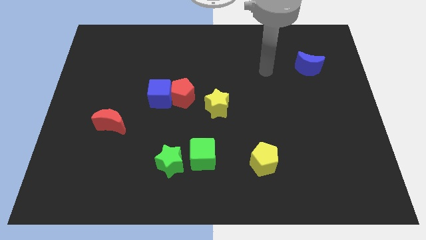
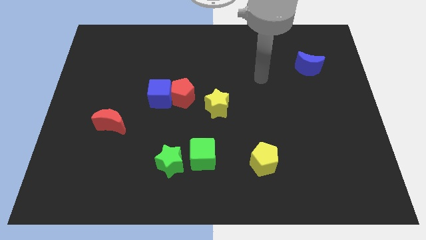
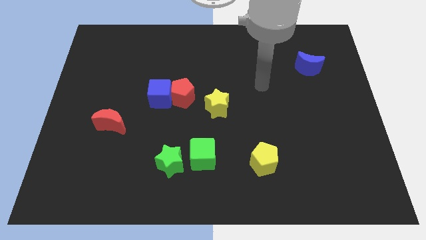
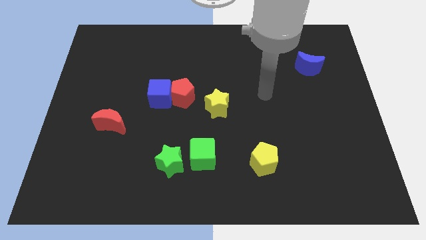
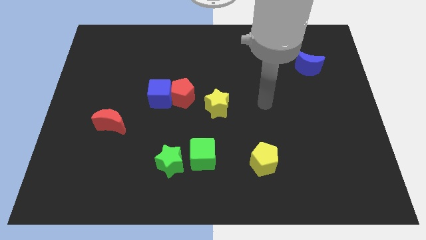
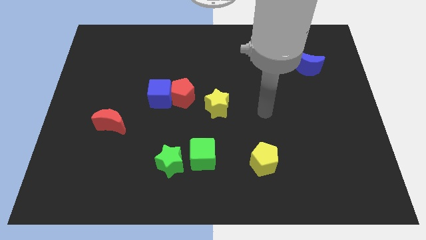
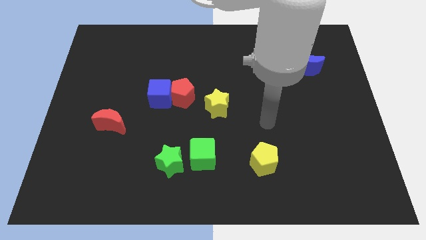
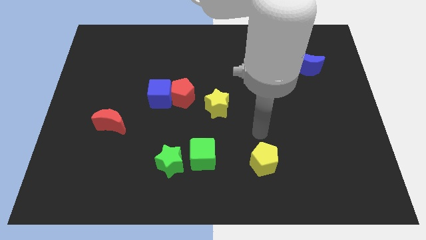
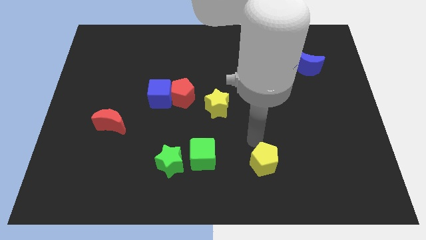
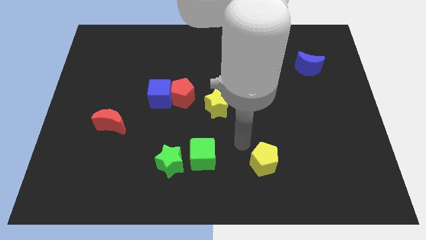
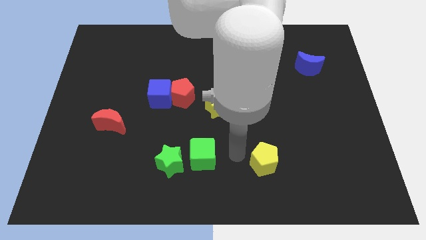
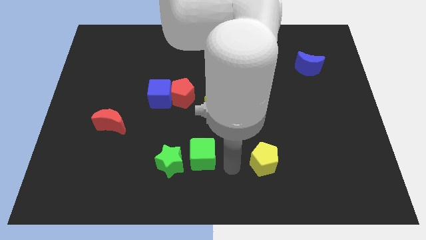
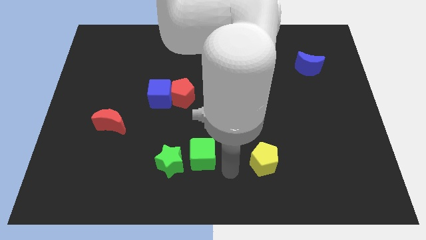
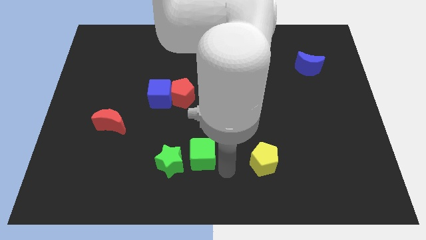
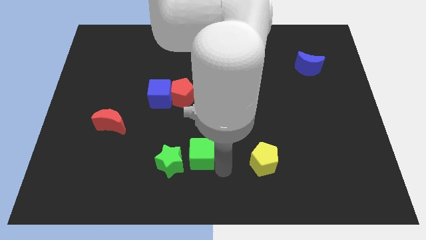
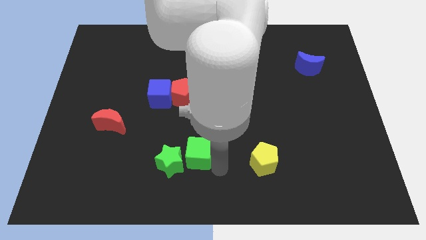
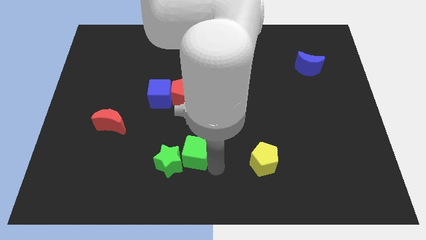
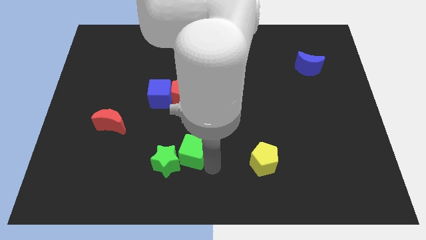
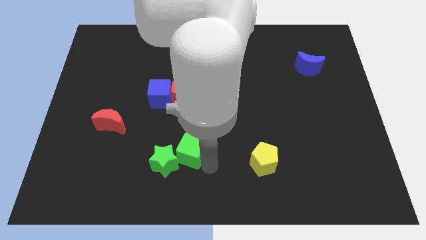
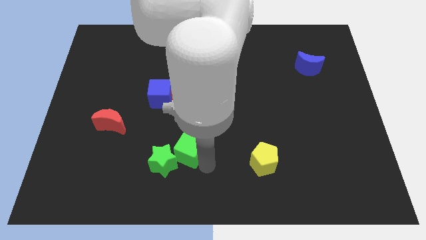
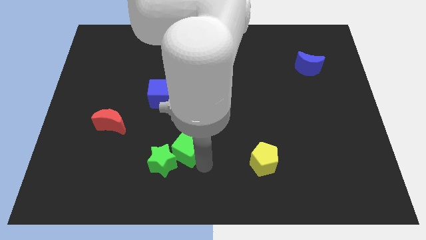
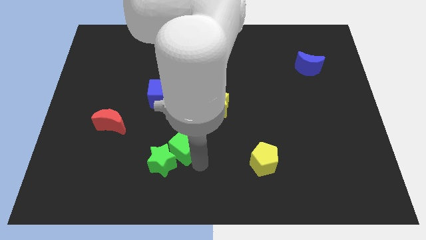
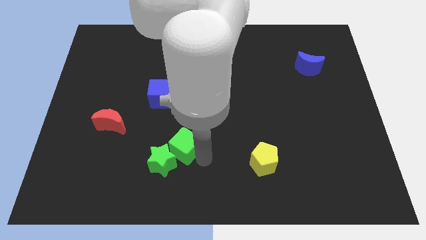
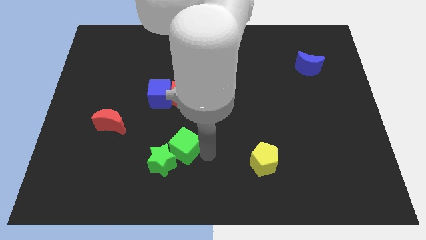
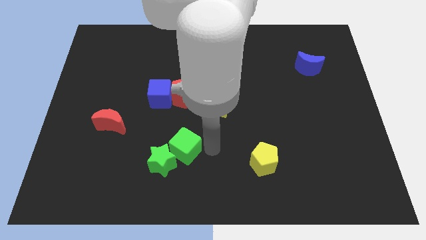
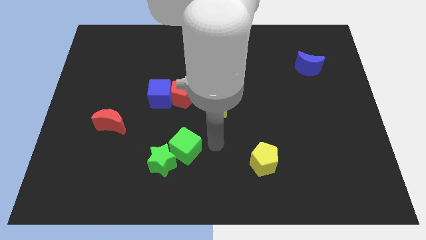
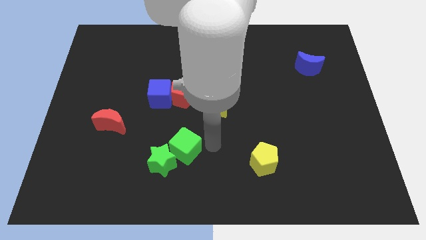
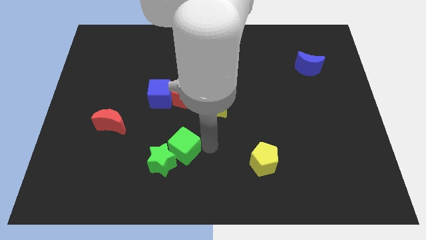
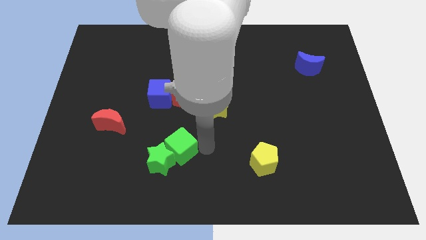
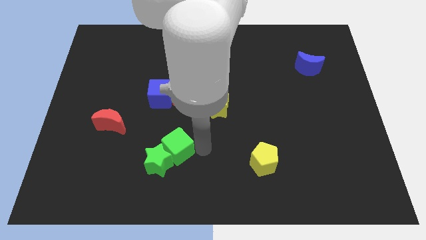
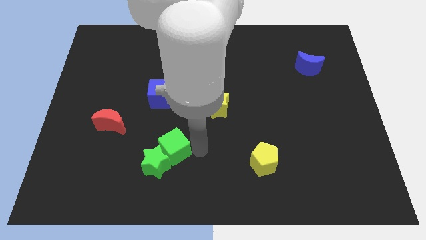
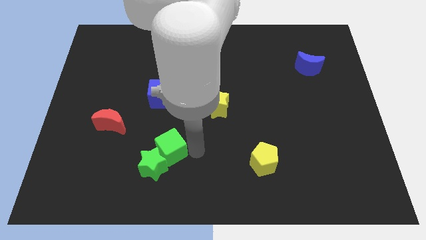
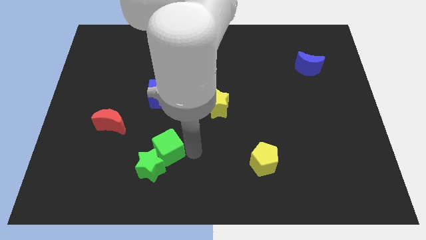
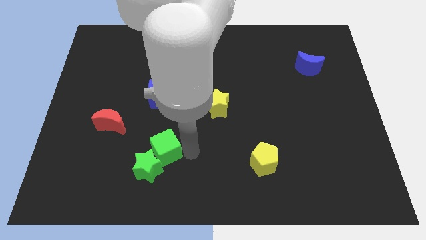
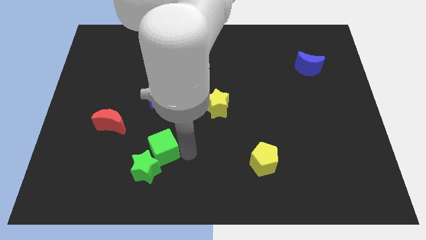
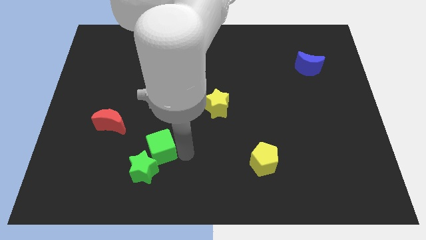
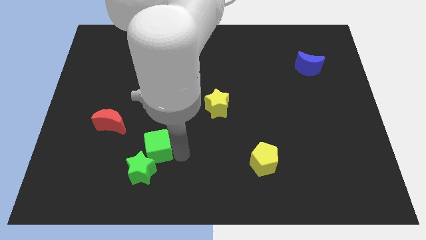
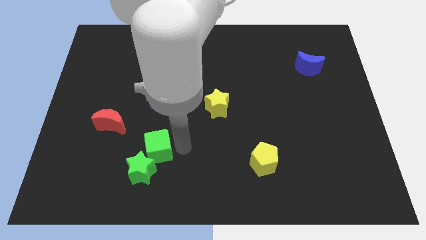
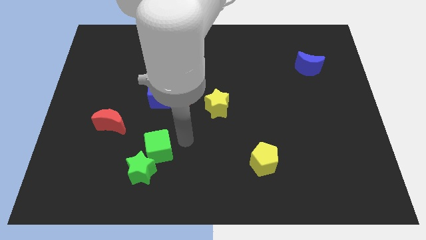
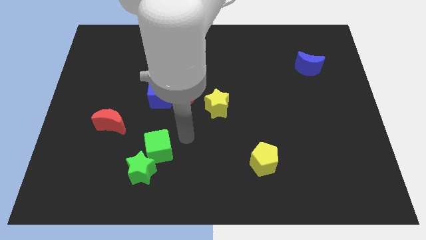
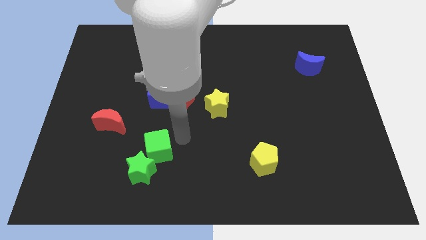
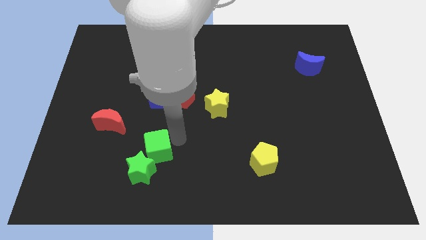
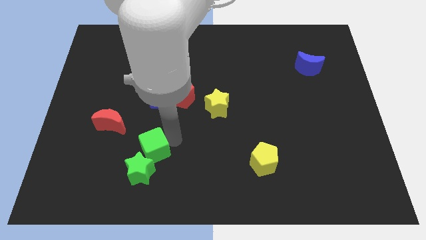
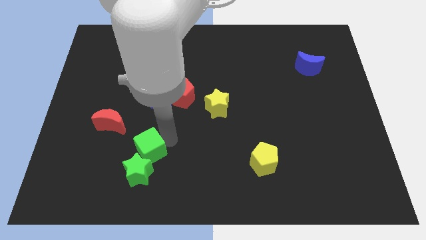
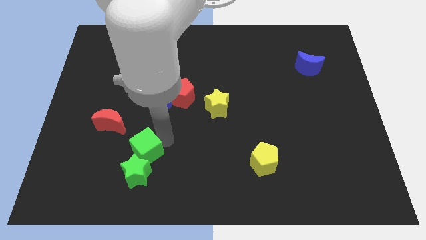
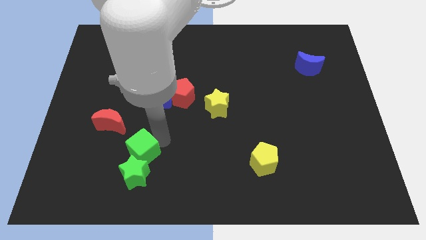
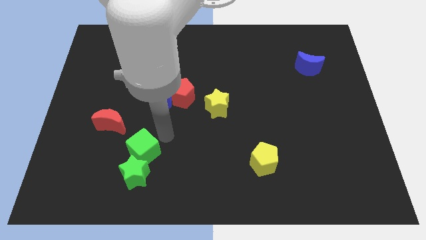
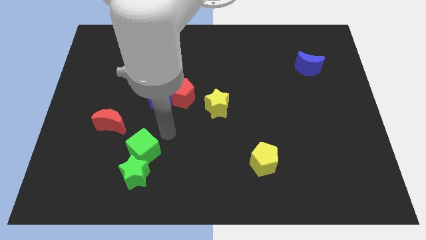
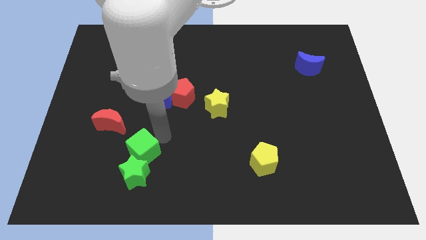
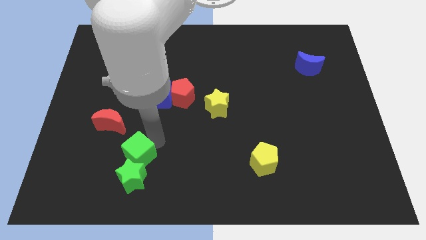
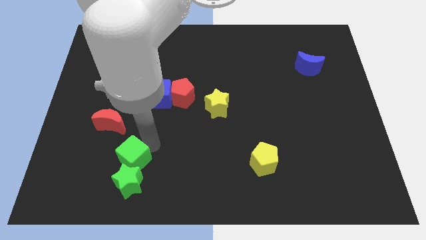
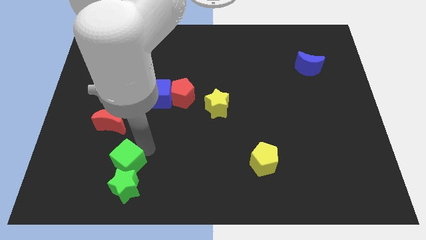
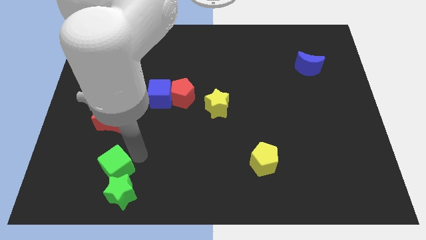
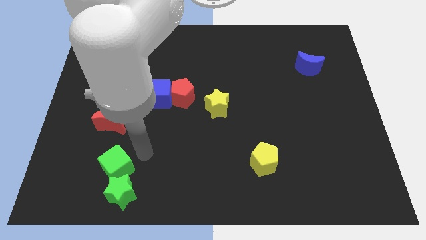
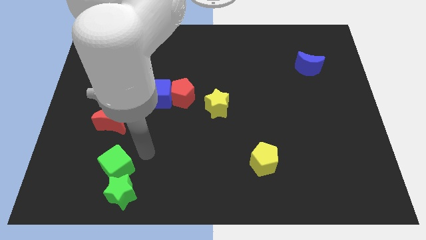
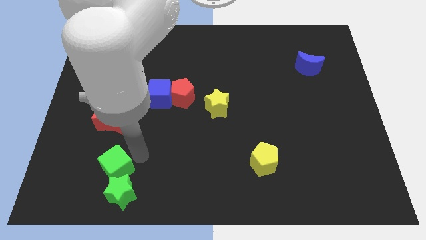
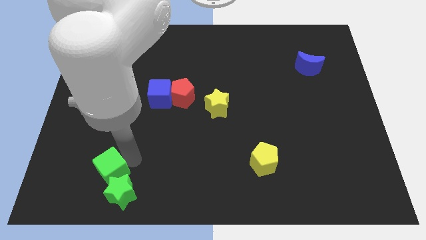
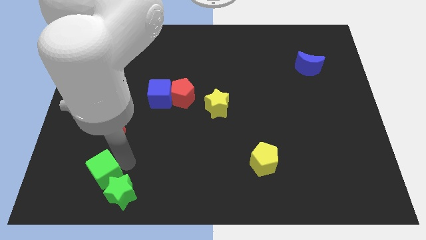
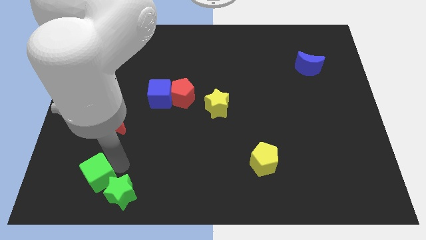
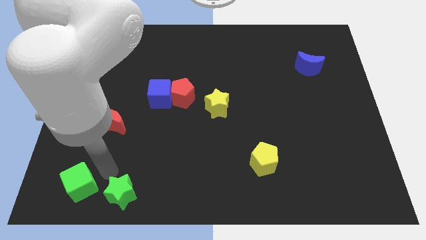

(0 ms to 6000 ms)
slide the green cube to the bottom left of the board

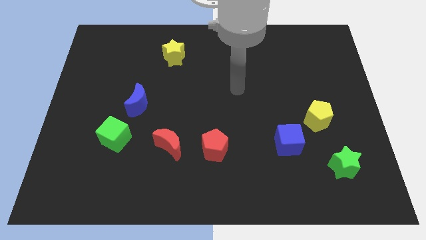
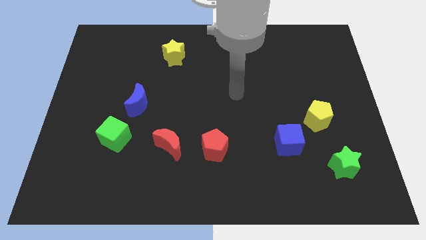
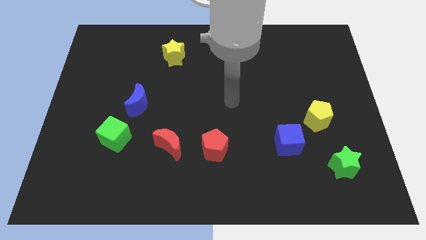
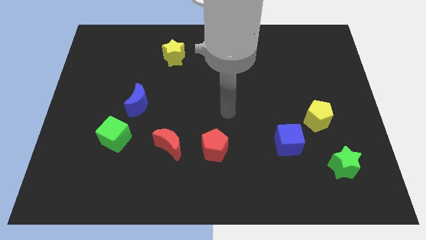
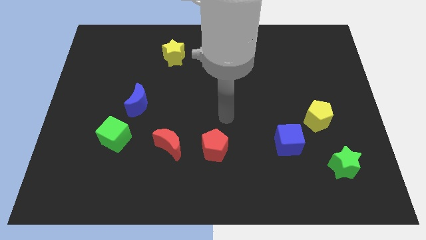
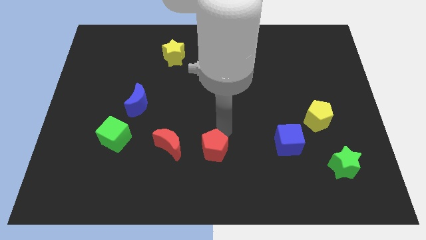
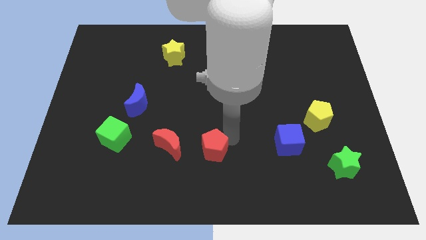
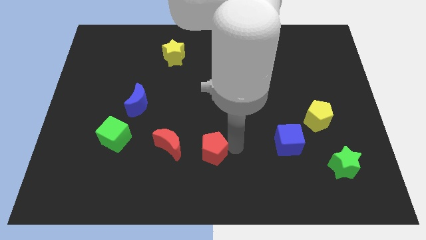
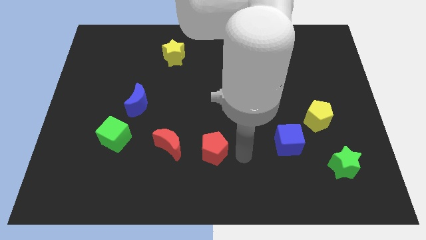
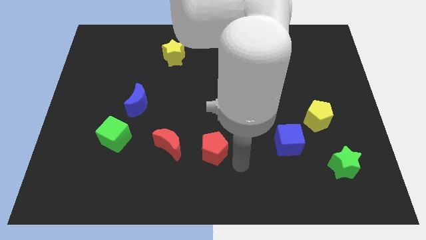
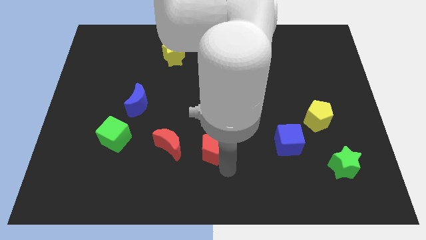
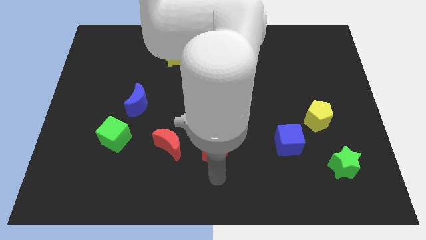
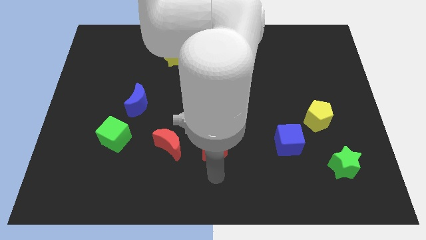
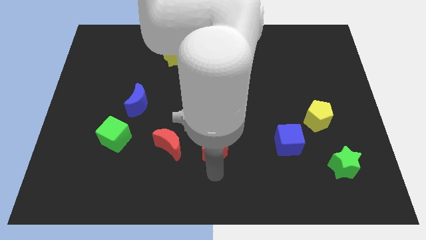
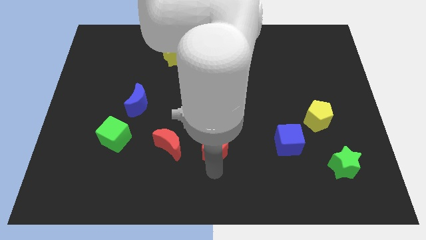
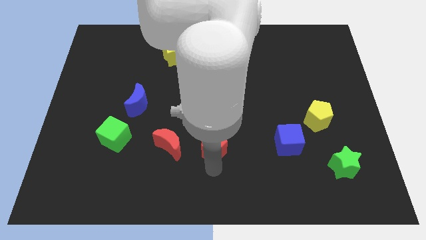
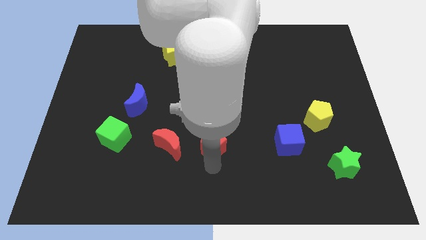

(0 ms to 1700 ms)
slide the red pentagon to the middle
